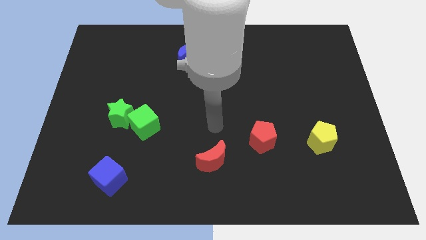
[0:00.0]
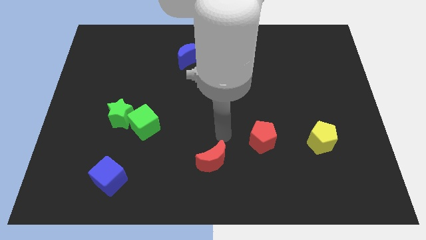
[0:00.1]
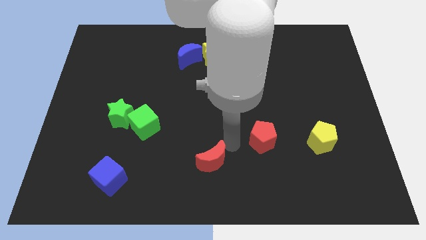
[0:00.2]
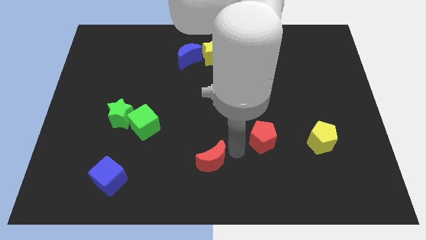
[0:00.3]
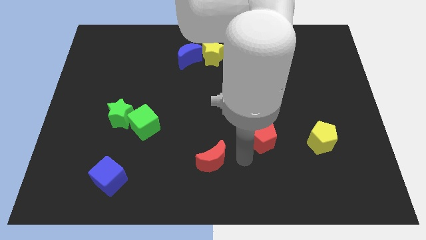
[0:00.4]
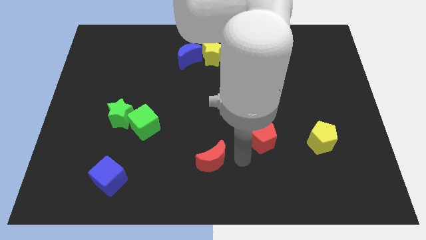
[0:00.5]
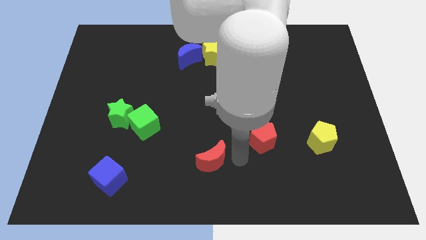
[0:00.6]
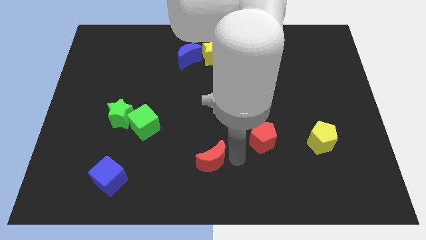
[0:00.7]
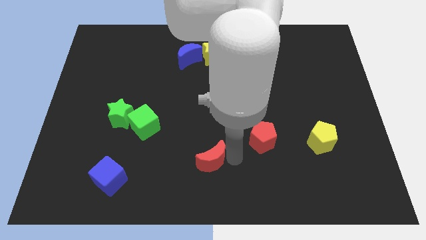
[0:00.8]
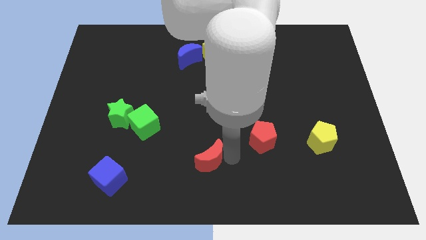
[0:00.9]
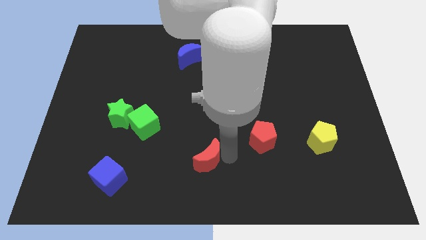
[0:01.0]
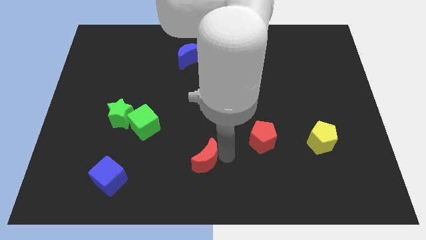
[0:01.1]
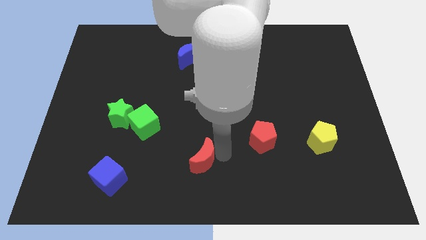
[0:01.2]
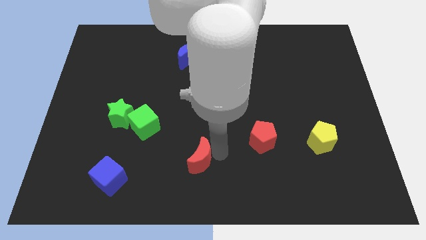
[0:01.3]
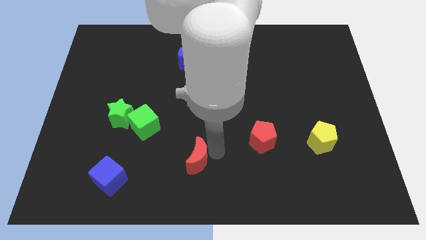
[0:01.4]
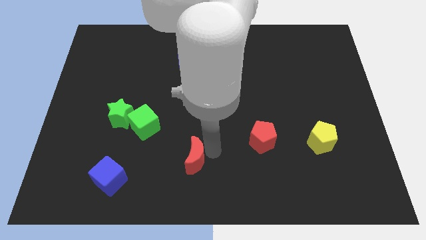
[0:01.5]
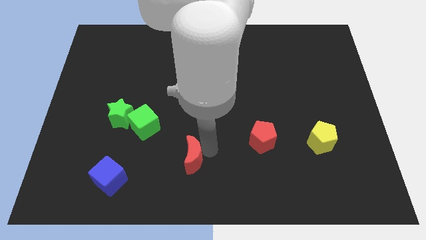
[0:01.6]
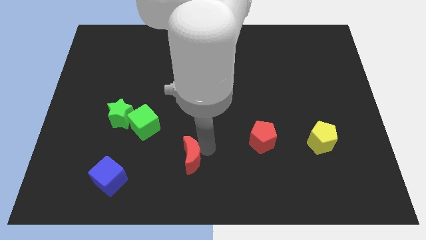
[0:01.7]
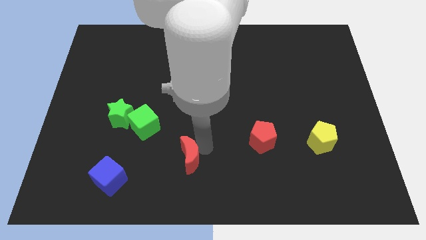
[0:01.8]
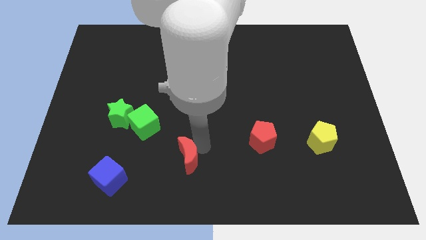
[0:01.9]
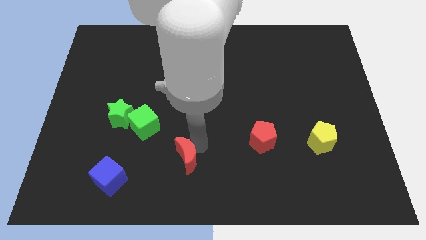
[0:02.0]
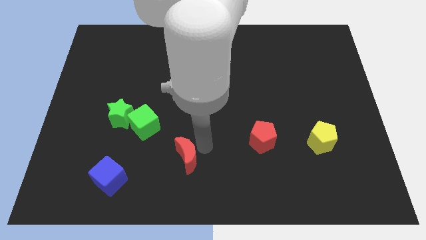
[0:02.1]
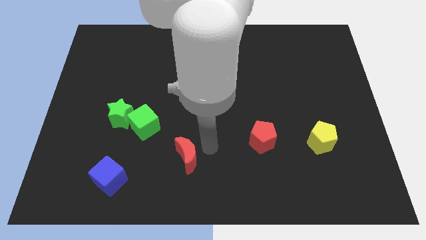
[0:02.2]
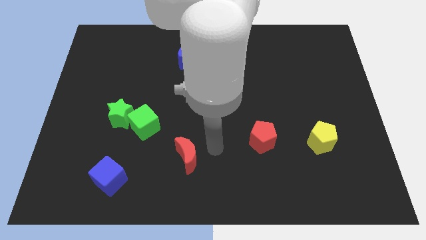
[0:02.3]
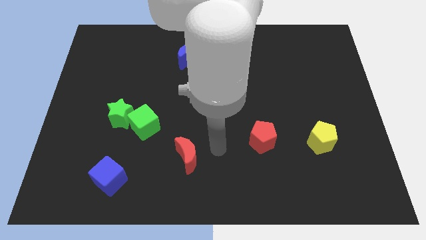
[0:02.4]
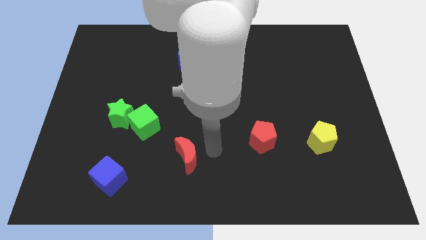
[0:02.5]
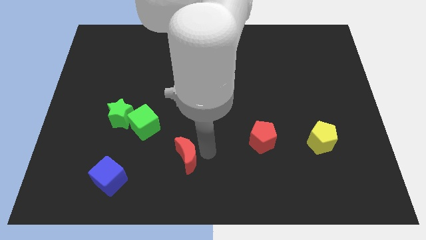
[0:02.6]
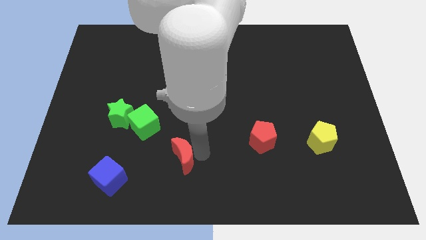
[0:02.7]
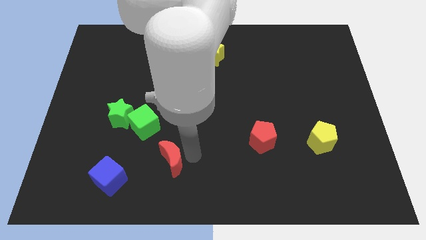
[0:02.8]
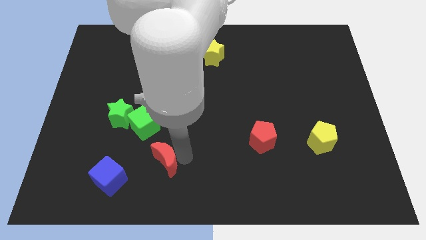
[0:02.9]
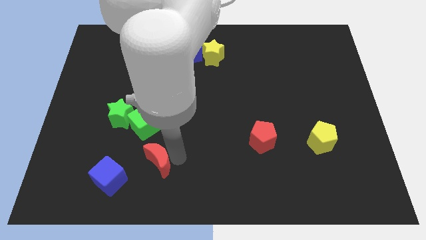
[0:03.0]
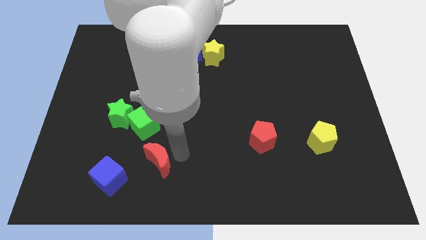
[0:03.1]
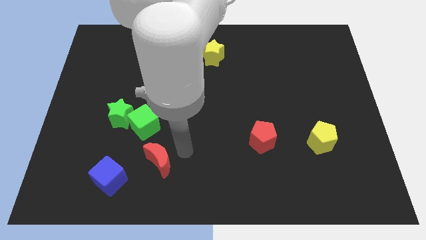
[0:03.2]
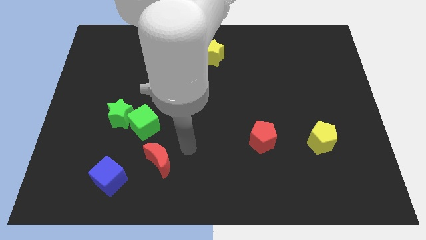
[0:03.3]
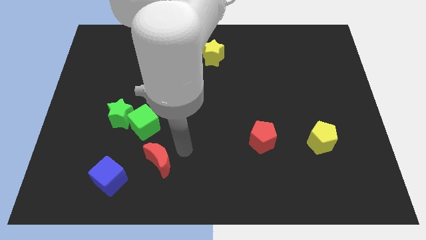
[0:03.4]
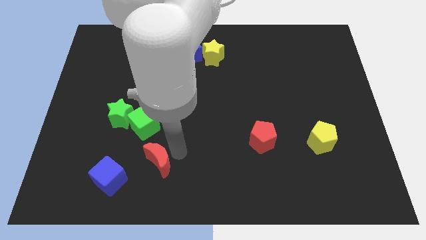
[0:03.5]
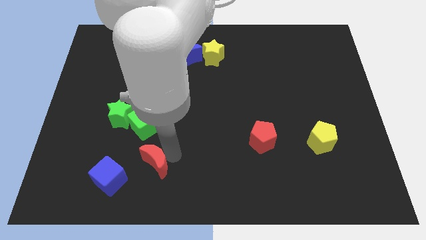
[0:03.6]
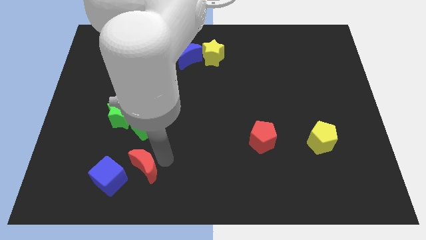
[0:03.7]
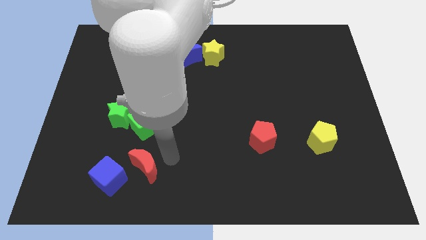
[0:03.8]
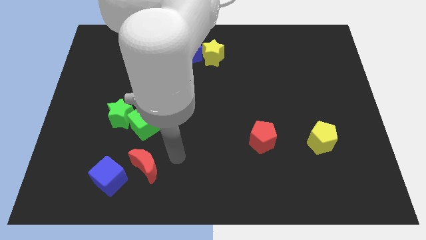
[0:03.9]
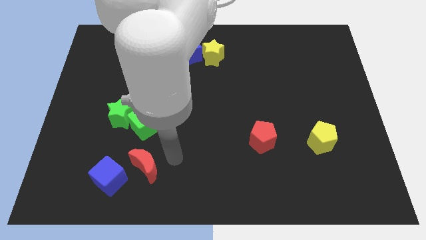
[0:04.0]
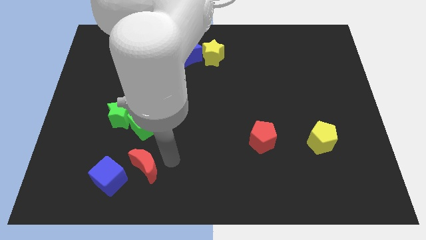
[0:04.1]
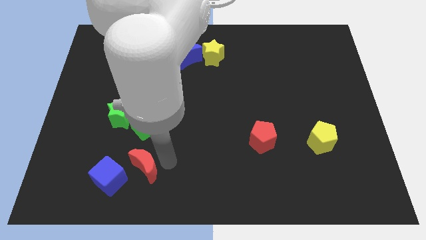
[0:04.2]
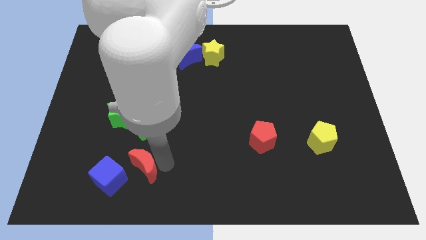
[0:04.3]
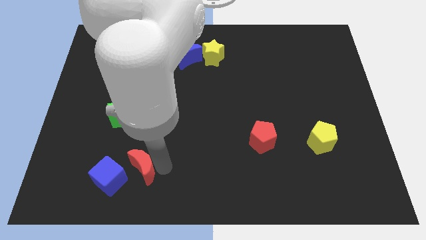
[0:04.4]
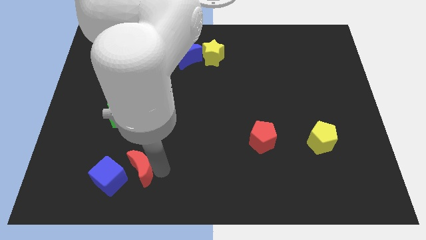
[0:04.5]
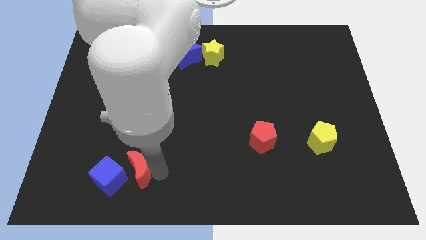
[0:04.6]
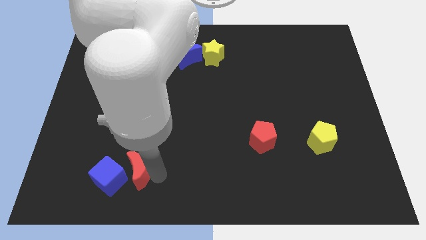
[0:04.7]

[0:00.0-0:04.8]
push the red moon towards the blue cube

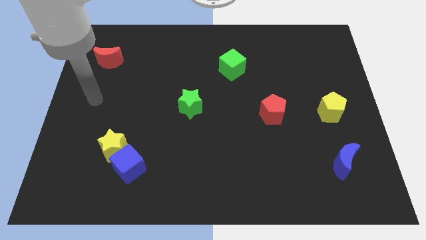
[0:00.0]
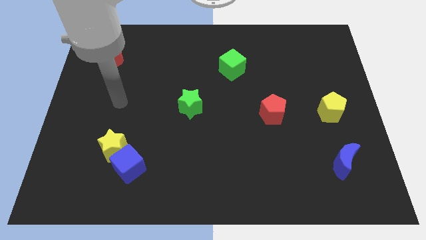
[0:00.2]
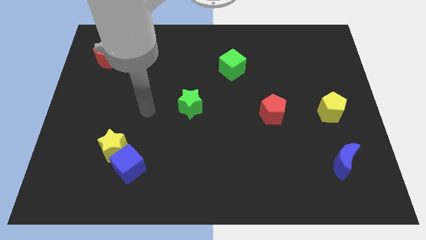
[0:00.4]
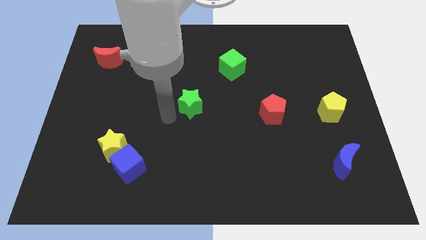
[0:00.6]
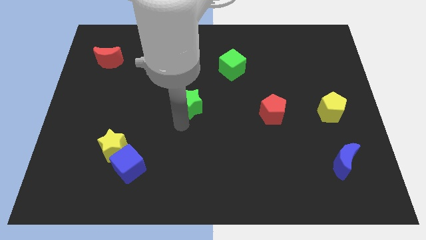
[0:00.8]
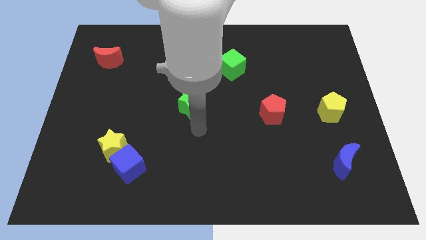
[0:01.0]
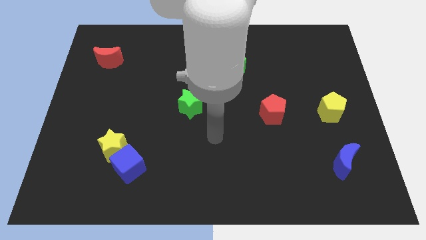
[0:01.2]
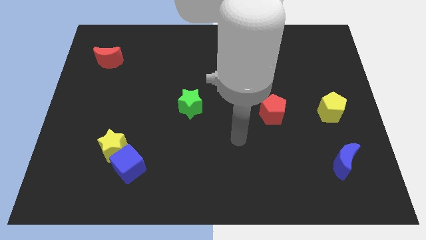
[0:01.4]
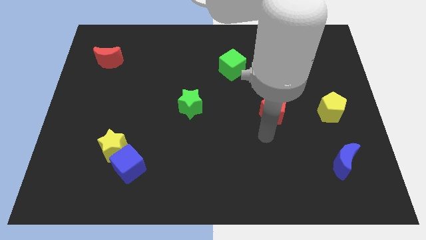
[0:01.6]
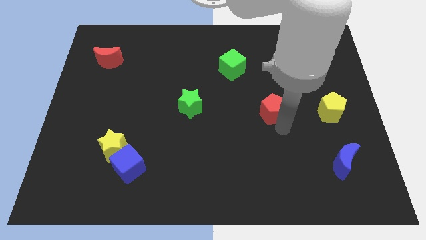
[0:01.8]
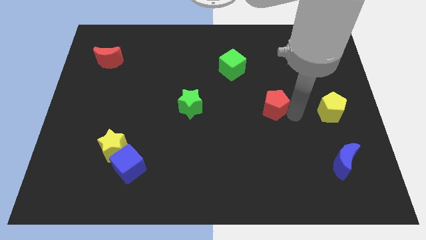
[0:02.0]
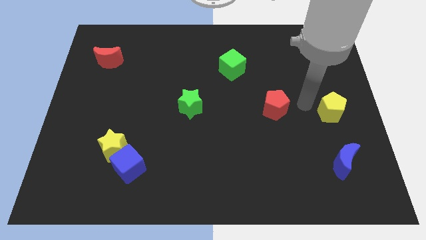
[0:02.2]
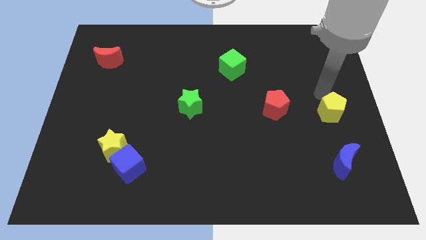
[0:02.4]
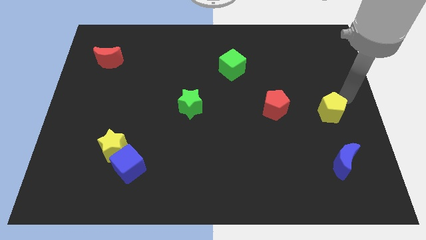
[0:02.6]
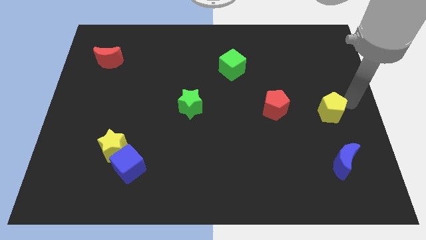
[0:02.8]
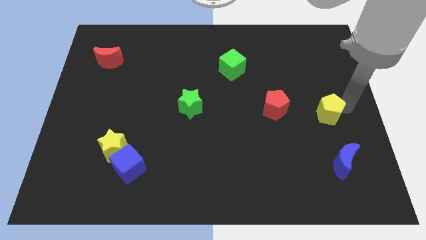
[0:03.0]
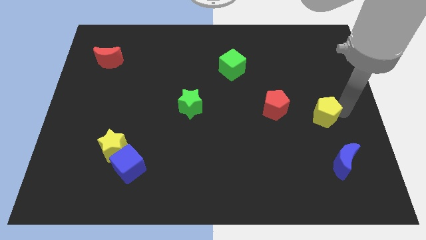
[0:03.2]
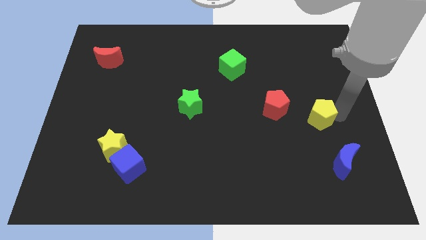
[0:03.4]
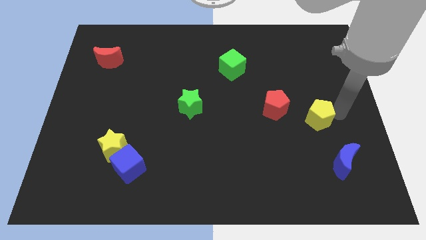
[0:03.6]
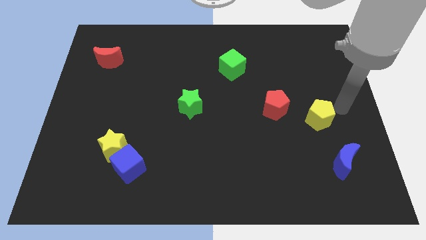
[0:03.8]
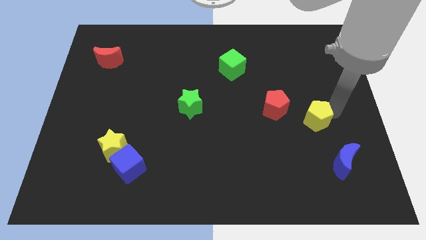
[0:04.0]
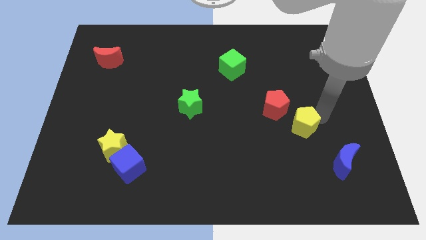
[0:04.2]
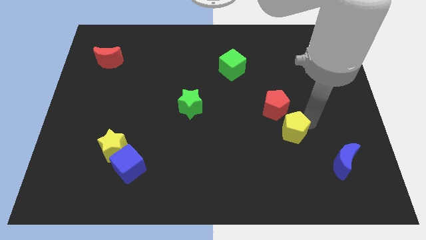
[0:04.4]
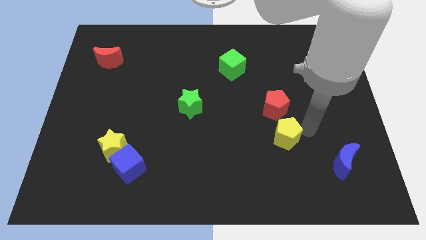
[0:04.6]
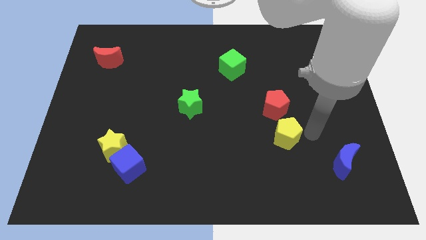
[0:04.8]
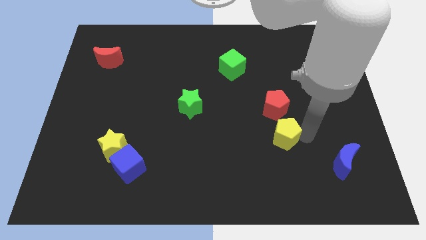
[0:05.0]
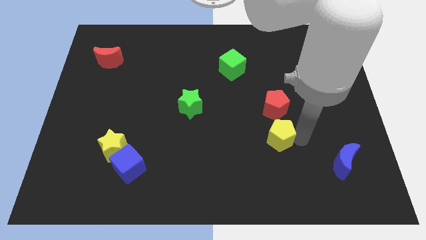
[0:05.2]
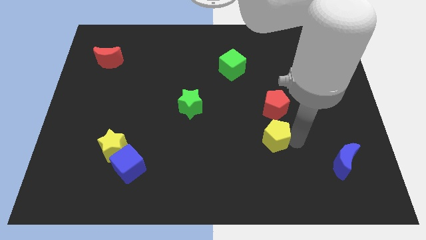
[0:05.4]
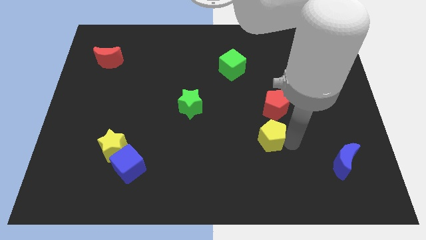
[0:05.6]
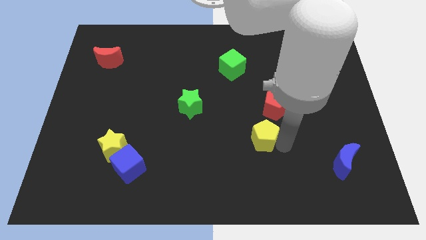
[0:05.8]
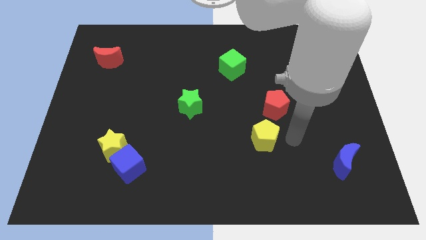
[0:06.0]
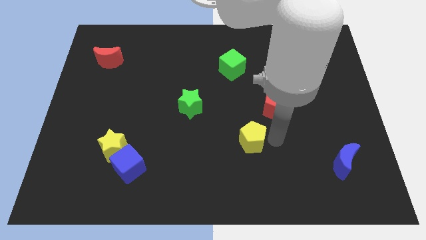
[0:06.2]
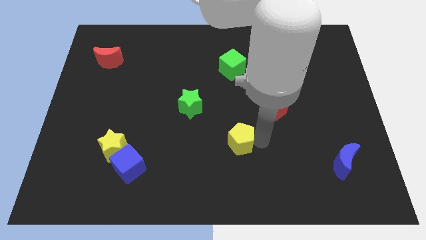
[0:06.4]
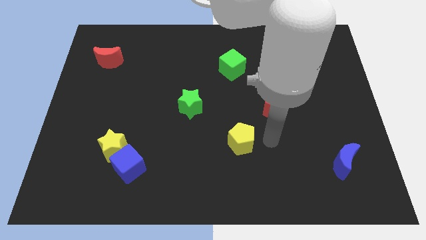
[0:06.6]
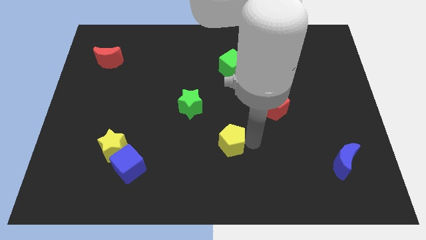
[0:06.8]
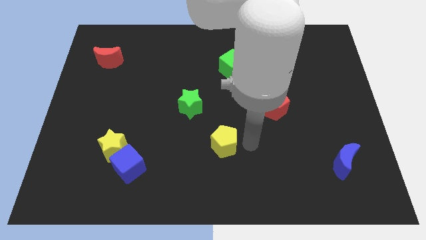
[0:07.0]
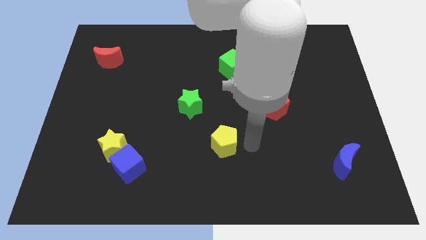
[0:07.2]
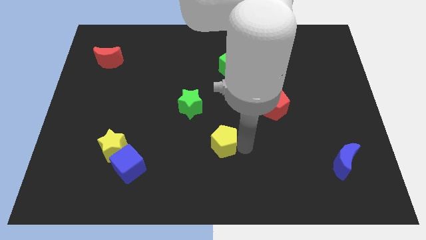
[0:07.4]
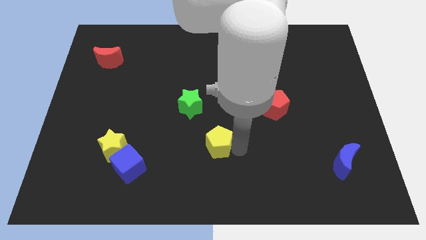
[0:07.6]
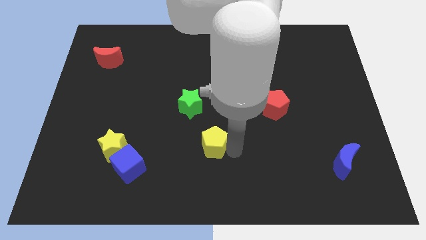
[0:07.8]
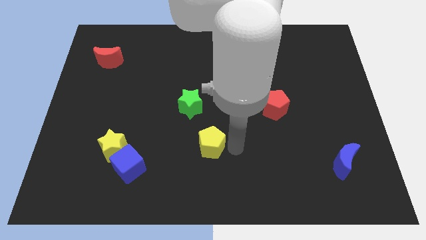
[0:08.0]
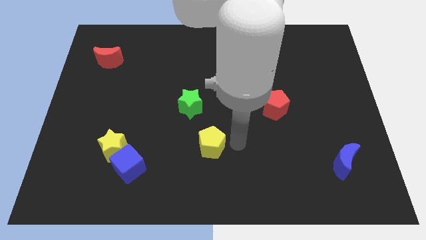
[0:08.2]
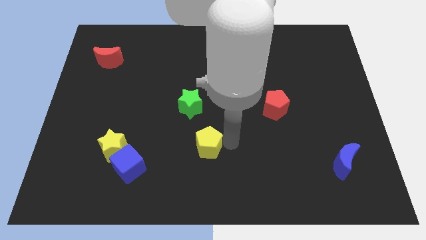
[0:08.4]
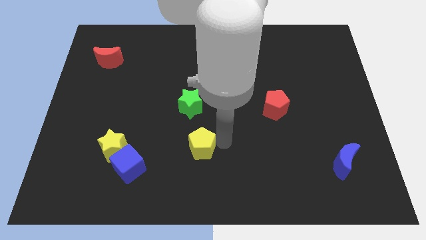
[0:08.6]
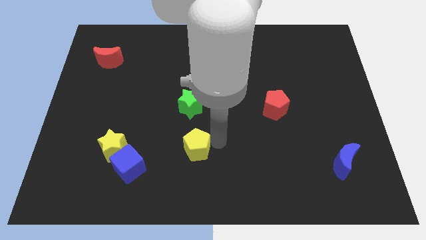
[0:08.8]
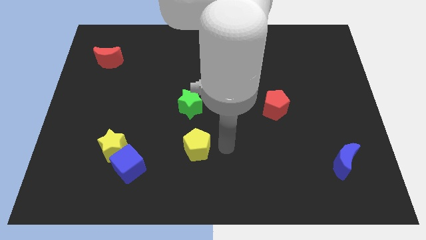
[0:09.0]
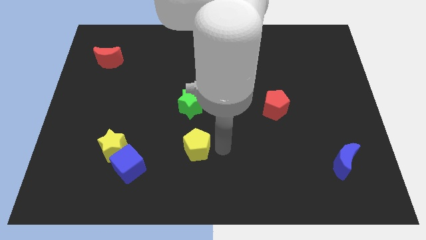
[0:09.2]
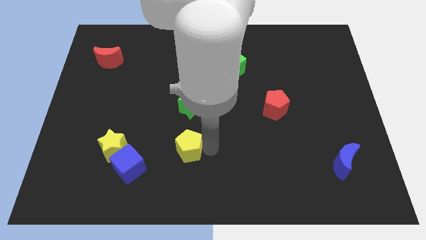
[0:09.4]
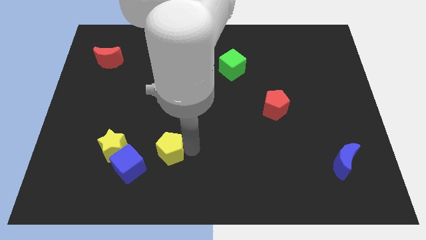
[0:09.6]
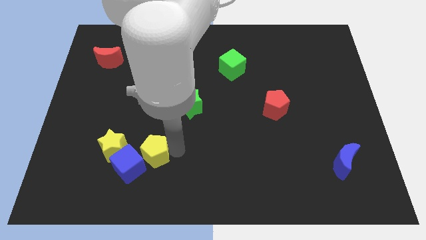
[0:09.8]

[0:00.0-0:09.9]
move the yellow pentagon towards the blue cube
